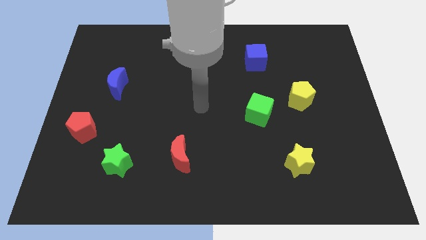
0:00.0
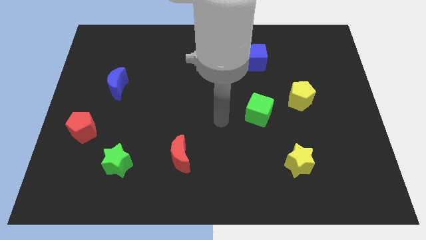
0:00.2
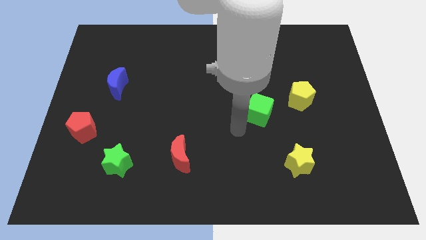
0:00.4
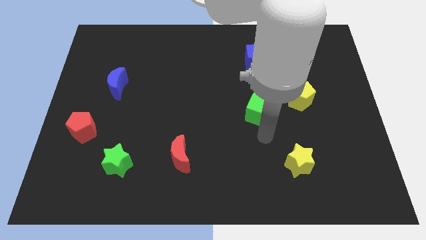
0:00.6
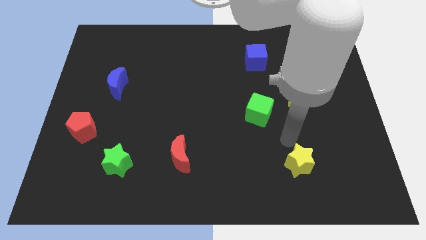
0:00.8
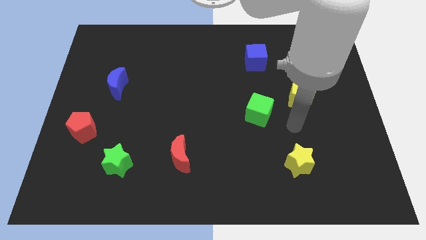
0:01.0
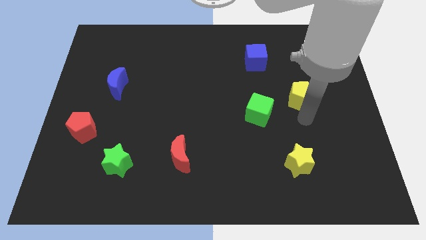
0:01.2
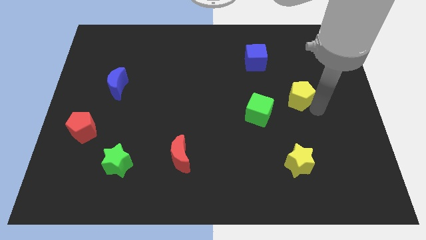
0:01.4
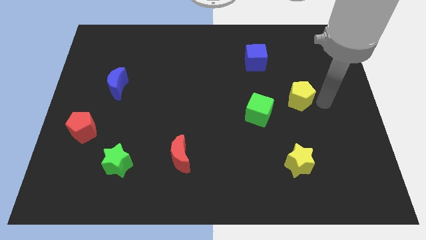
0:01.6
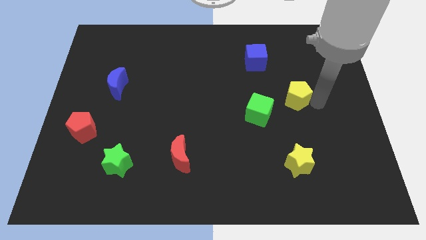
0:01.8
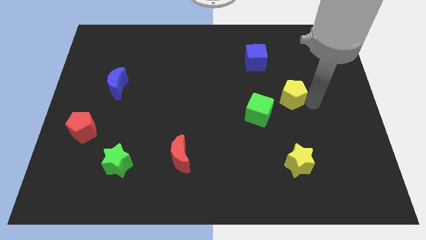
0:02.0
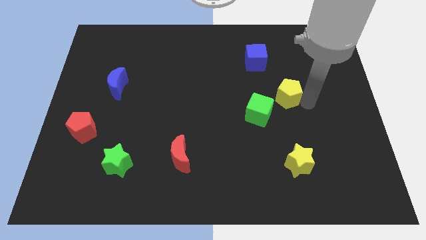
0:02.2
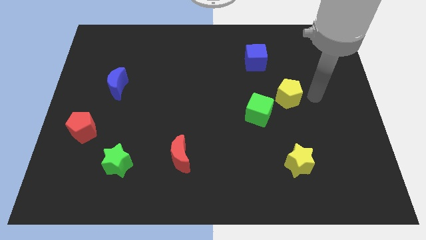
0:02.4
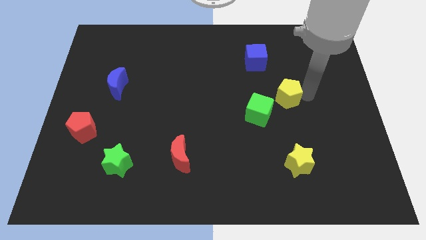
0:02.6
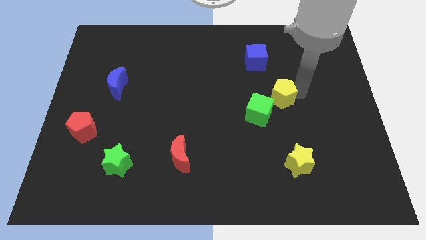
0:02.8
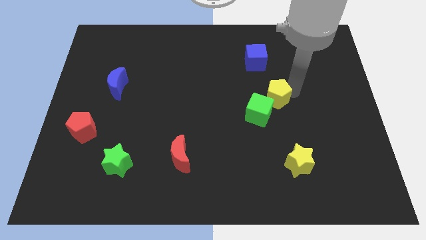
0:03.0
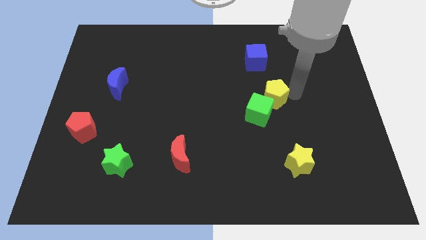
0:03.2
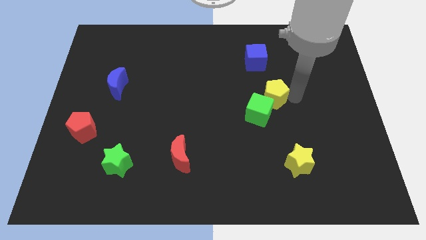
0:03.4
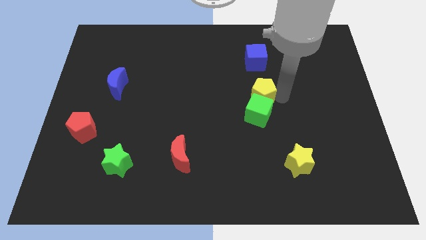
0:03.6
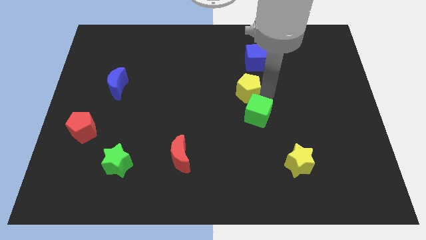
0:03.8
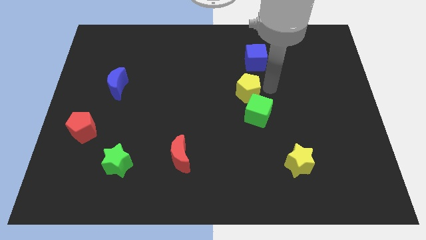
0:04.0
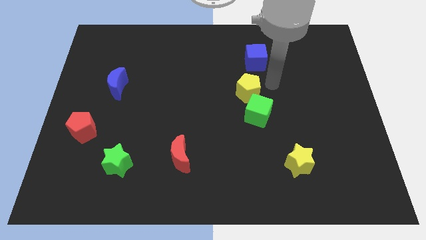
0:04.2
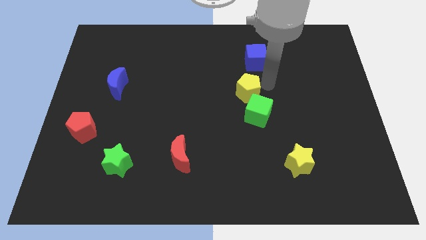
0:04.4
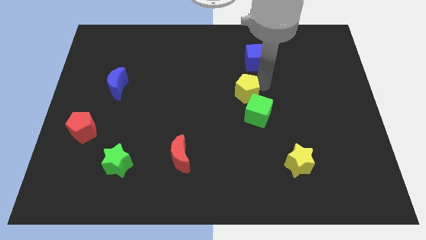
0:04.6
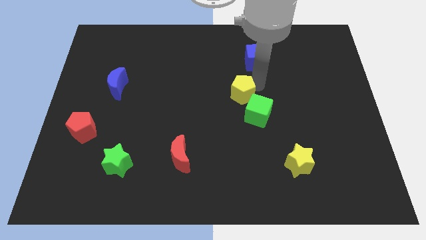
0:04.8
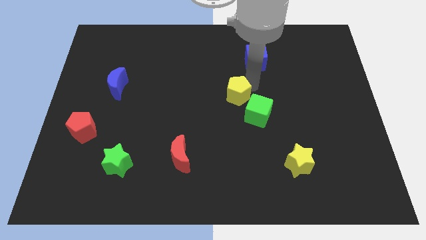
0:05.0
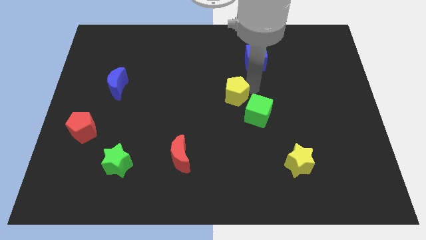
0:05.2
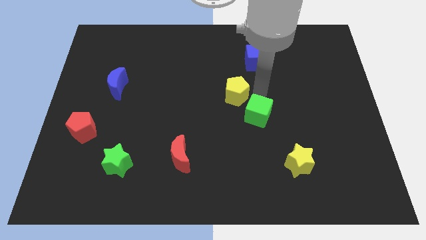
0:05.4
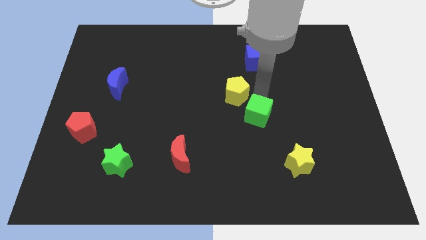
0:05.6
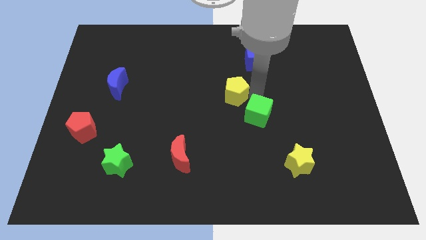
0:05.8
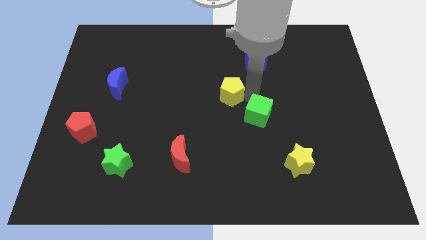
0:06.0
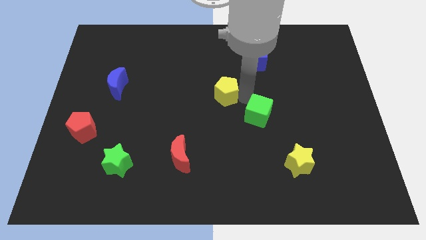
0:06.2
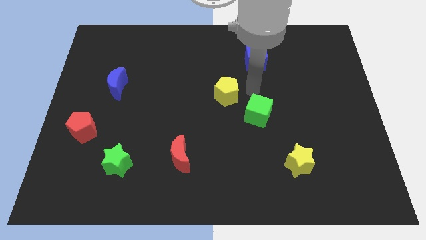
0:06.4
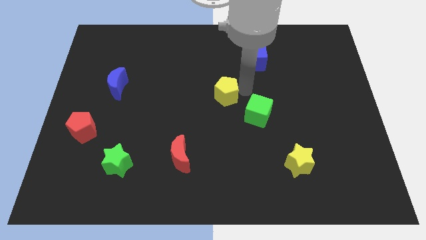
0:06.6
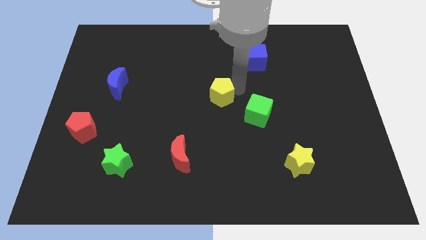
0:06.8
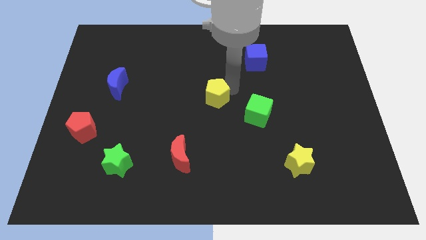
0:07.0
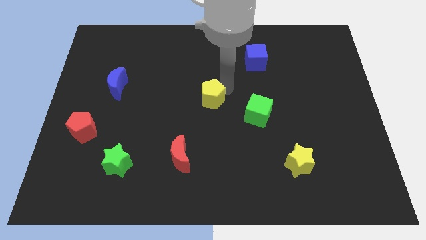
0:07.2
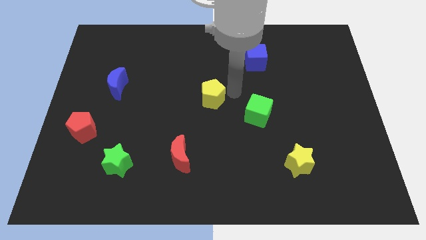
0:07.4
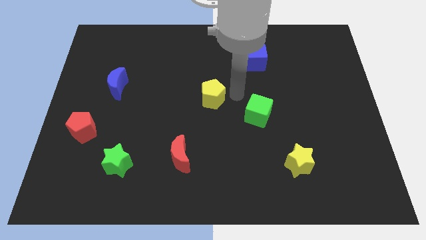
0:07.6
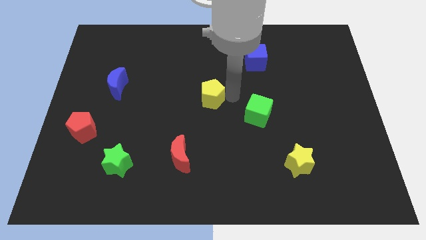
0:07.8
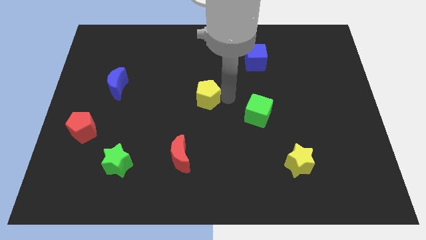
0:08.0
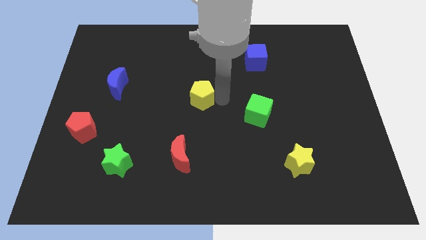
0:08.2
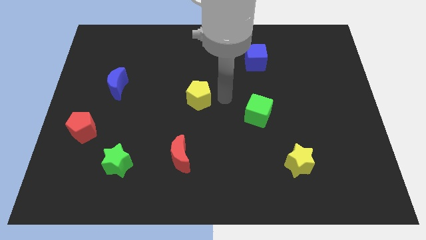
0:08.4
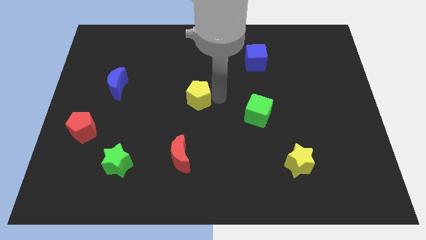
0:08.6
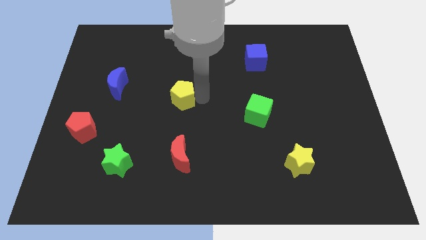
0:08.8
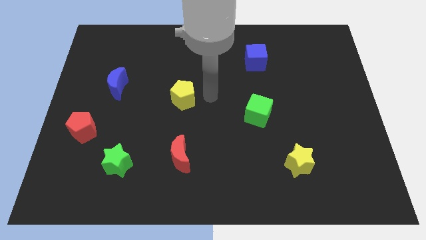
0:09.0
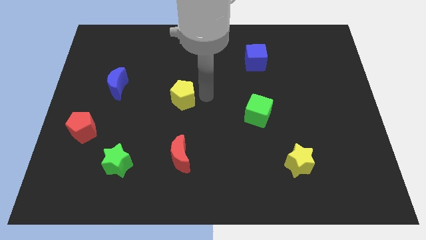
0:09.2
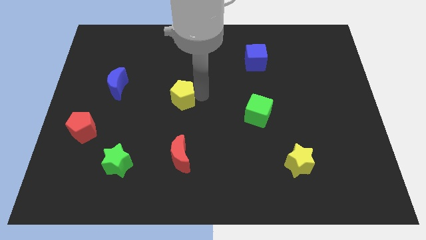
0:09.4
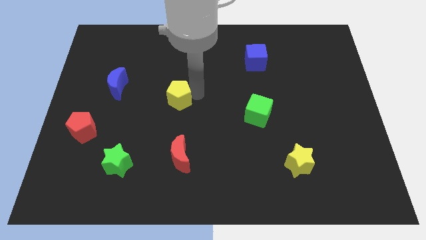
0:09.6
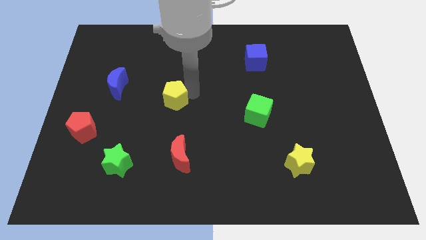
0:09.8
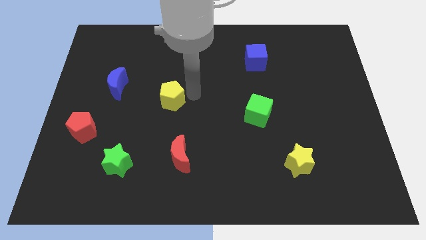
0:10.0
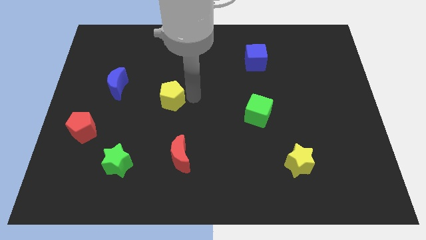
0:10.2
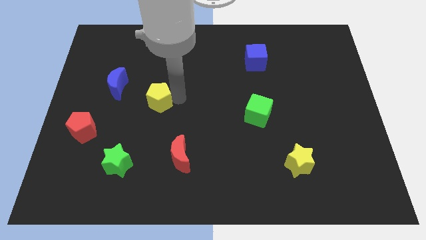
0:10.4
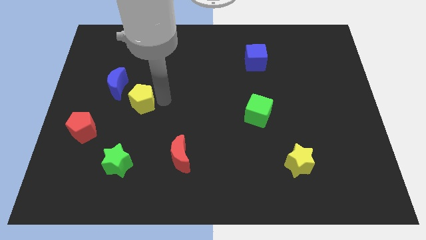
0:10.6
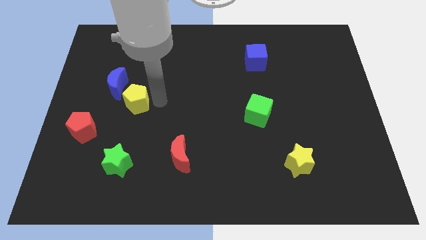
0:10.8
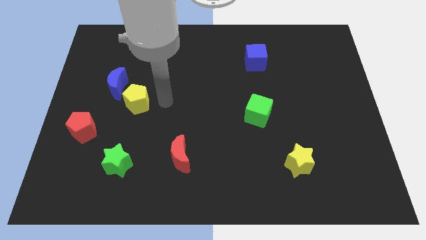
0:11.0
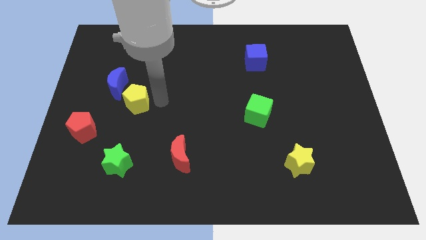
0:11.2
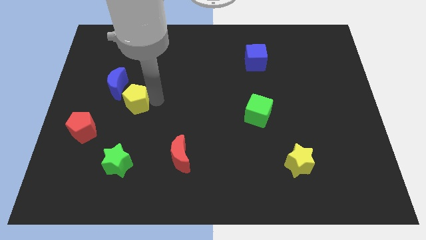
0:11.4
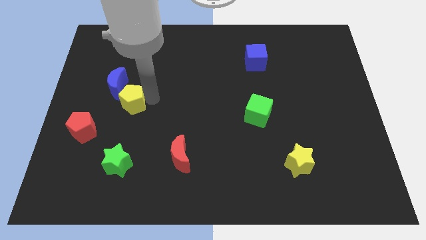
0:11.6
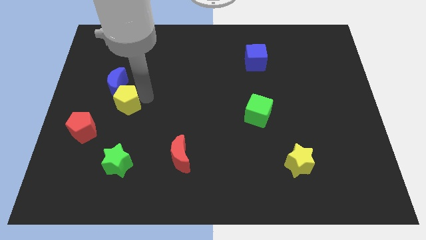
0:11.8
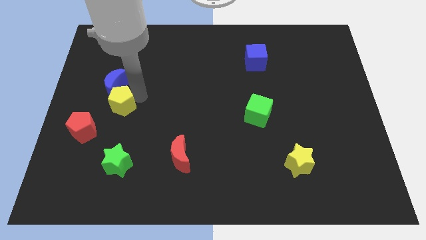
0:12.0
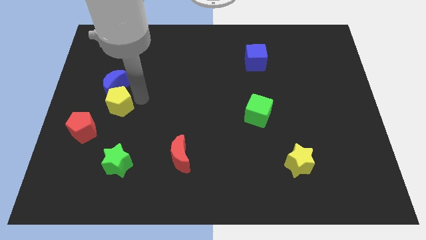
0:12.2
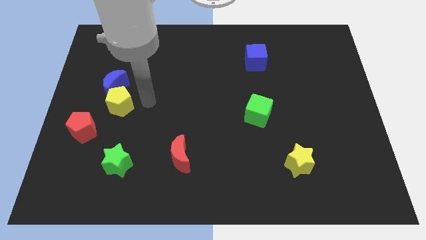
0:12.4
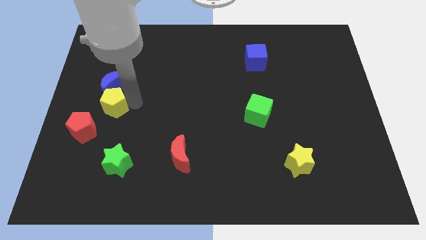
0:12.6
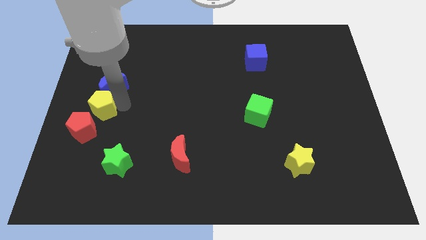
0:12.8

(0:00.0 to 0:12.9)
move the yellow pentagon to the left side
